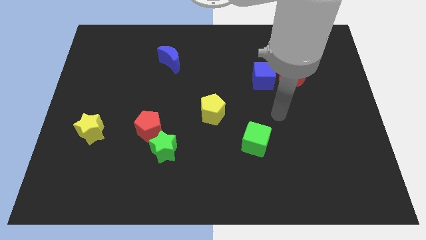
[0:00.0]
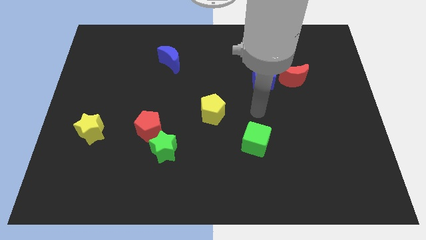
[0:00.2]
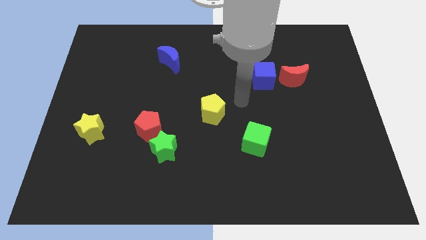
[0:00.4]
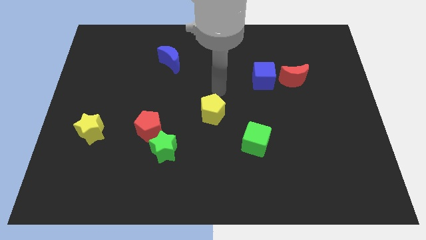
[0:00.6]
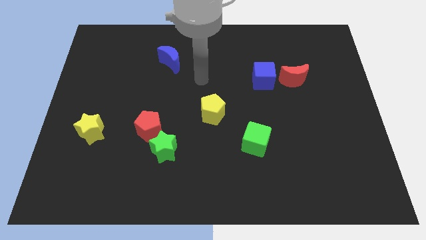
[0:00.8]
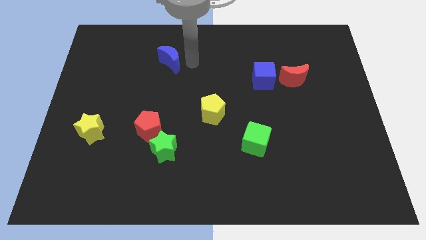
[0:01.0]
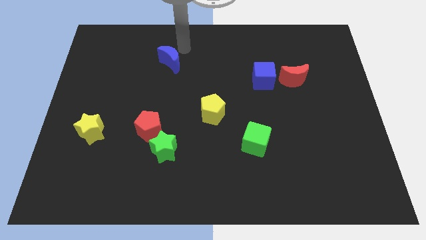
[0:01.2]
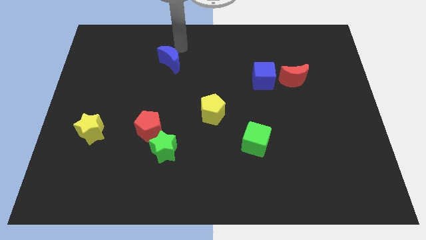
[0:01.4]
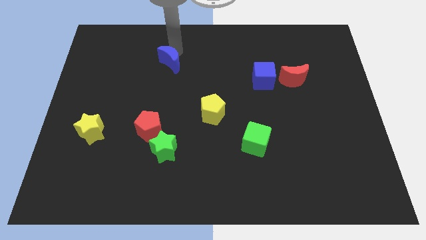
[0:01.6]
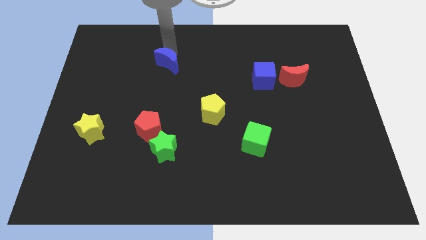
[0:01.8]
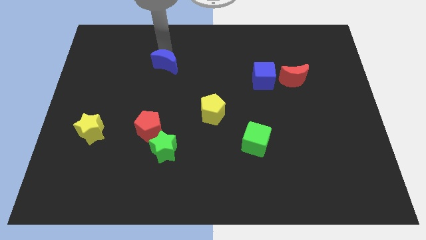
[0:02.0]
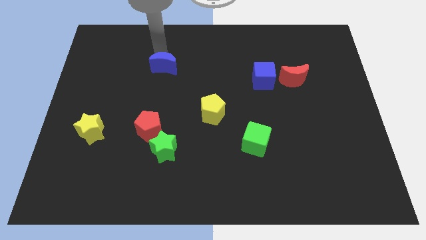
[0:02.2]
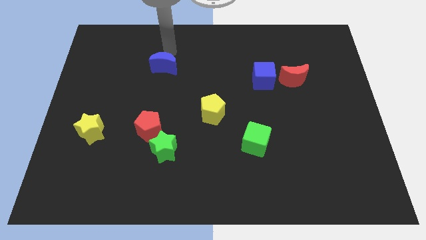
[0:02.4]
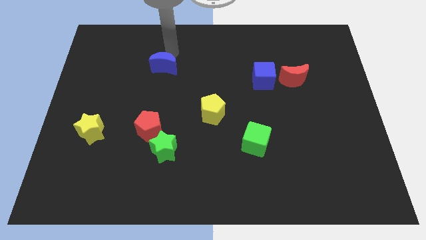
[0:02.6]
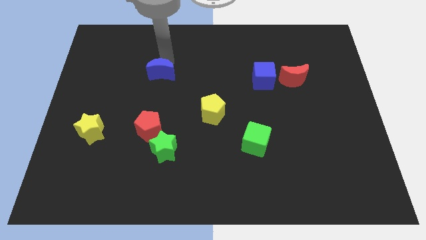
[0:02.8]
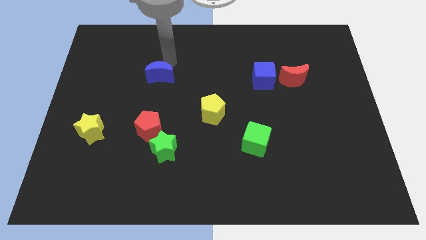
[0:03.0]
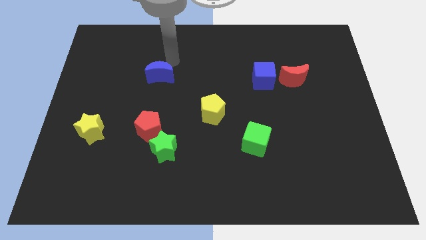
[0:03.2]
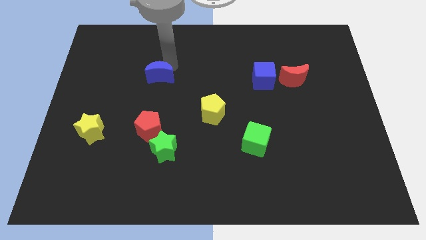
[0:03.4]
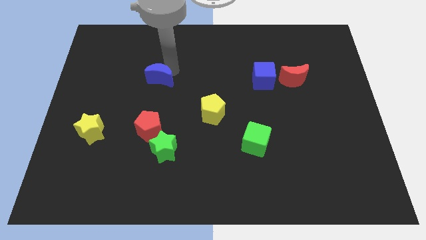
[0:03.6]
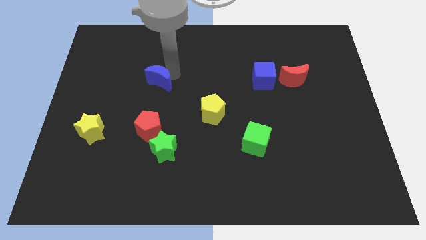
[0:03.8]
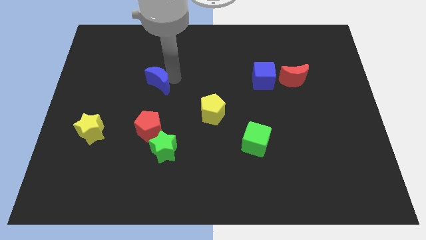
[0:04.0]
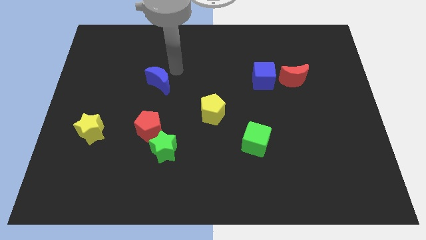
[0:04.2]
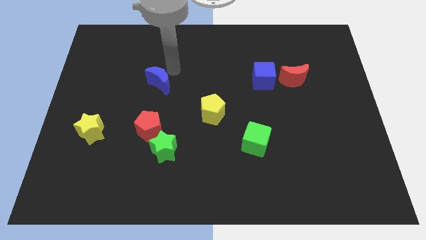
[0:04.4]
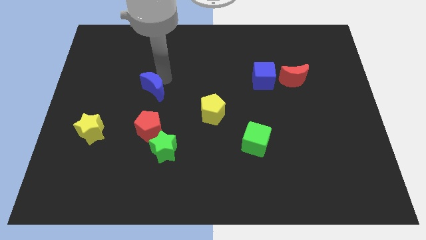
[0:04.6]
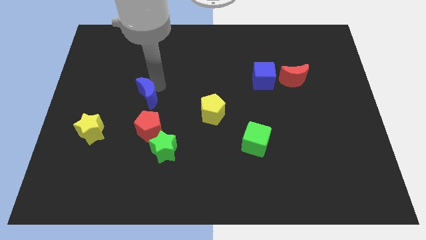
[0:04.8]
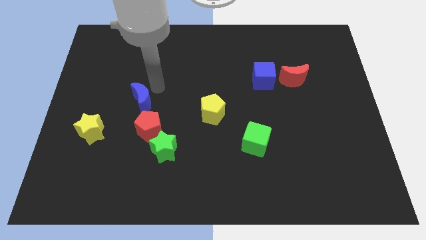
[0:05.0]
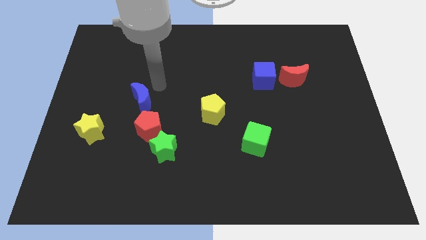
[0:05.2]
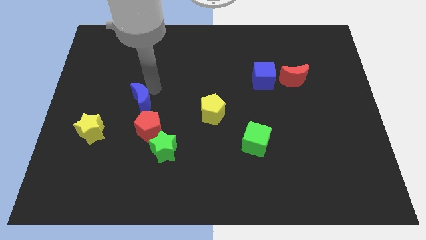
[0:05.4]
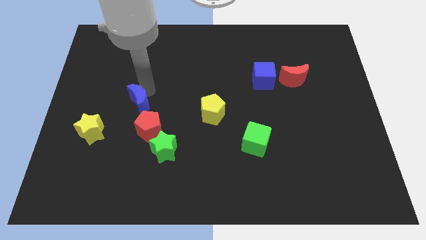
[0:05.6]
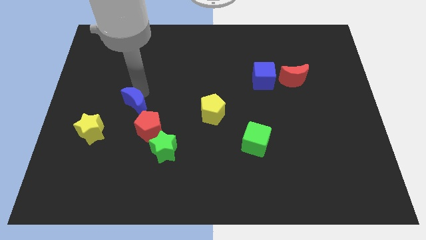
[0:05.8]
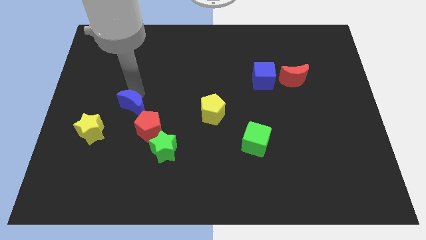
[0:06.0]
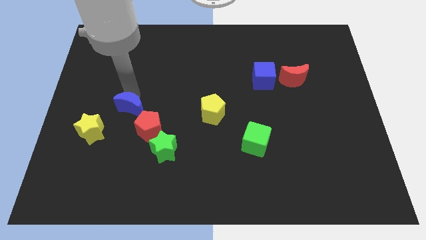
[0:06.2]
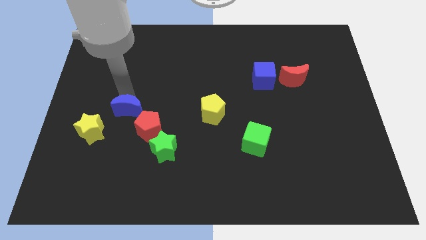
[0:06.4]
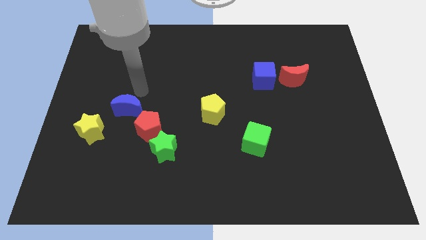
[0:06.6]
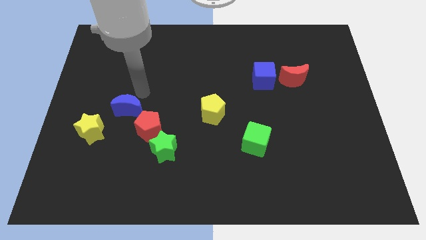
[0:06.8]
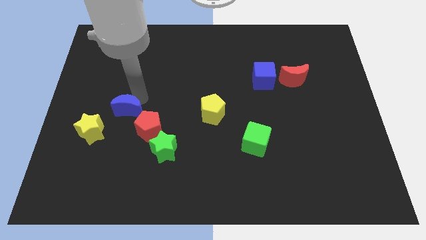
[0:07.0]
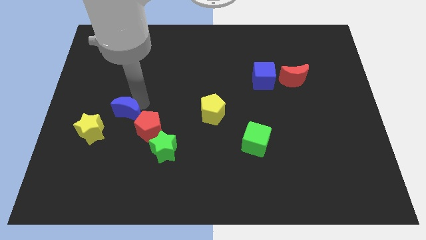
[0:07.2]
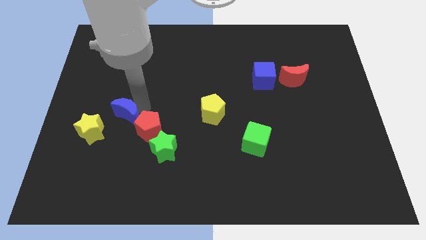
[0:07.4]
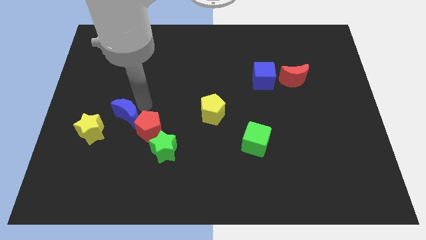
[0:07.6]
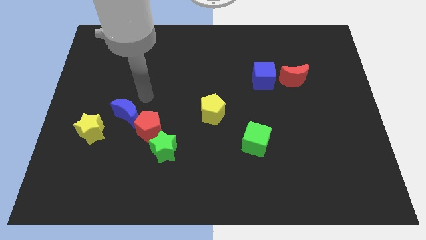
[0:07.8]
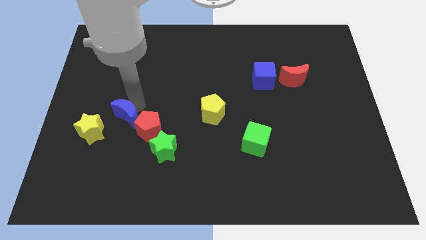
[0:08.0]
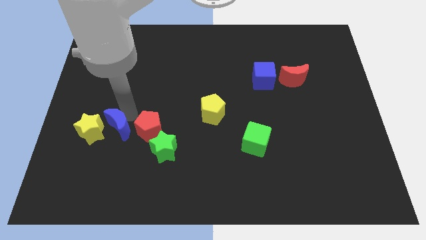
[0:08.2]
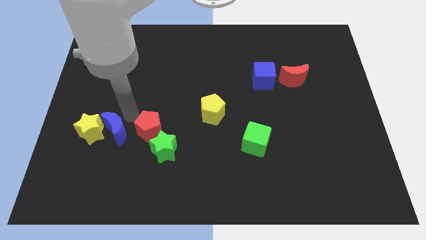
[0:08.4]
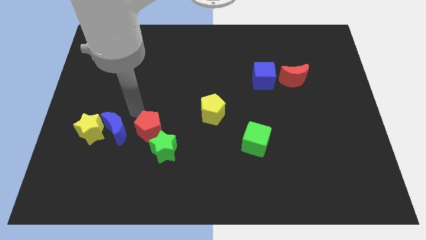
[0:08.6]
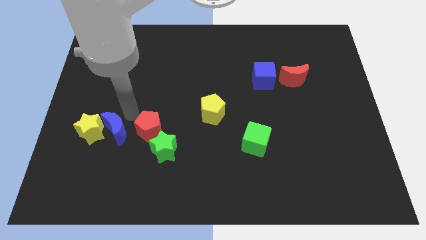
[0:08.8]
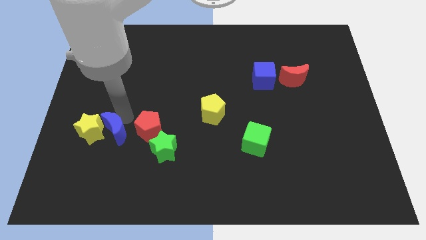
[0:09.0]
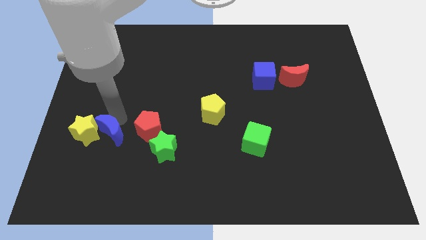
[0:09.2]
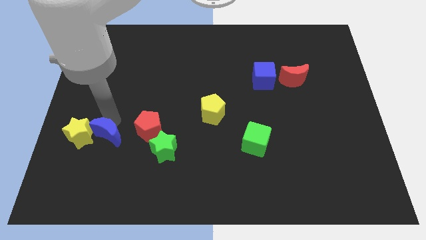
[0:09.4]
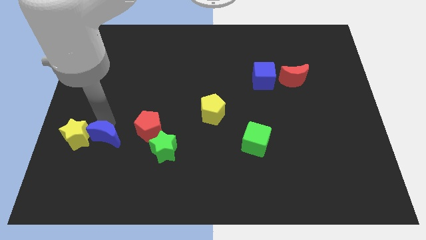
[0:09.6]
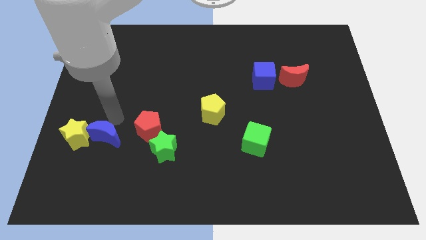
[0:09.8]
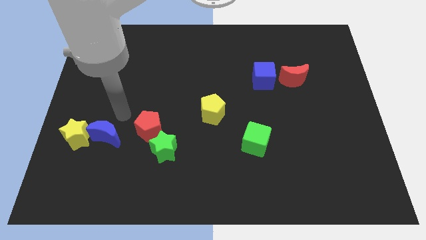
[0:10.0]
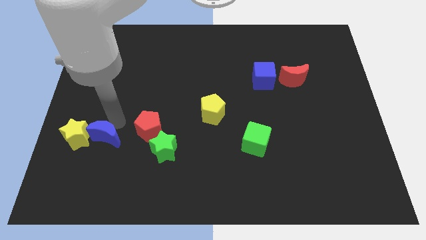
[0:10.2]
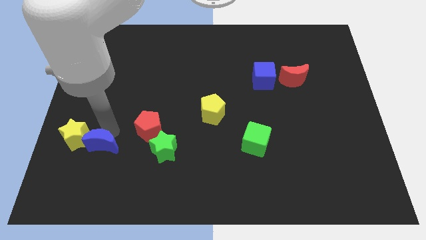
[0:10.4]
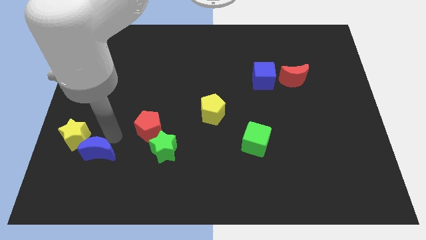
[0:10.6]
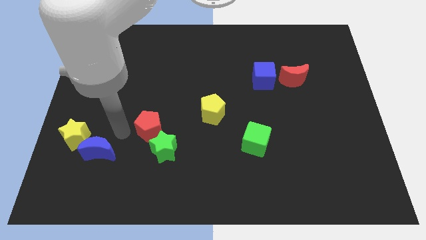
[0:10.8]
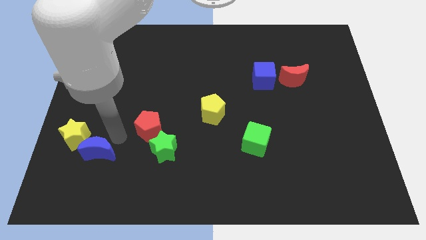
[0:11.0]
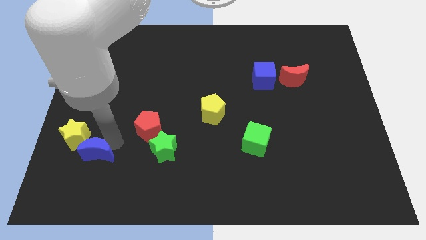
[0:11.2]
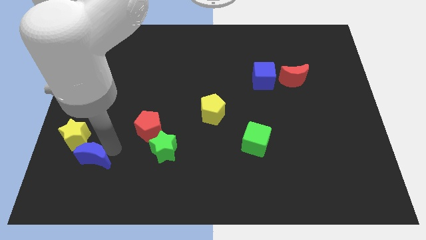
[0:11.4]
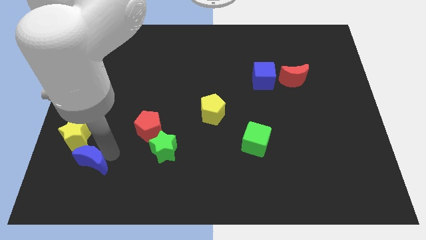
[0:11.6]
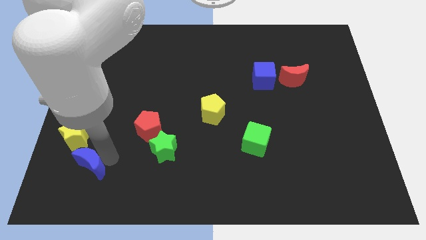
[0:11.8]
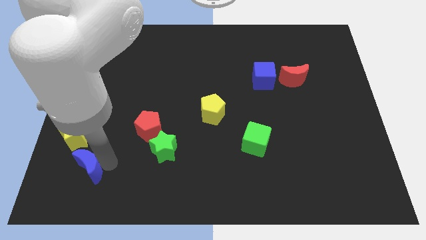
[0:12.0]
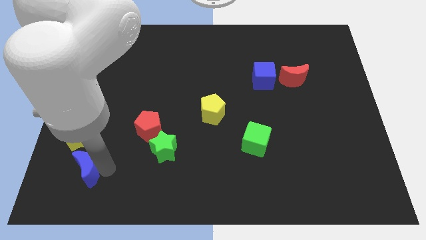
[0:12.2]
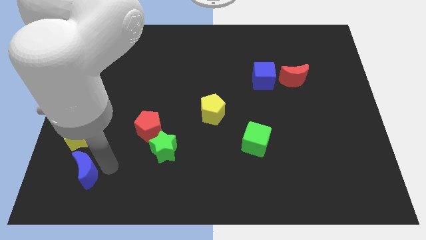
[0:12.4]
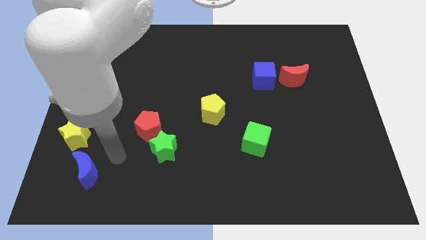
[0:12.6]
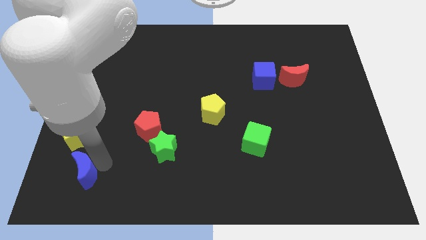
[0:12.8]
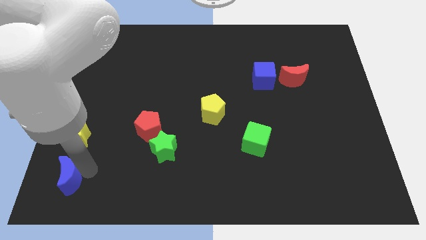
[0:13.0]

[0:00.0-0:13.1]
push the blue moon to the bottom left corner
